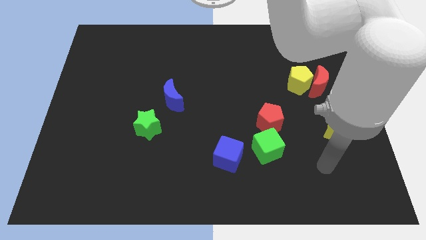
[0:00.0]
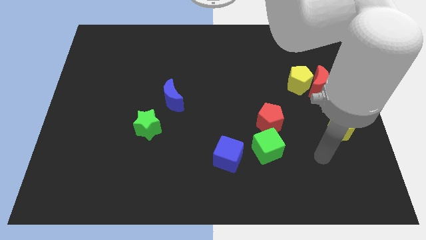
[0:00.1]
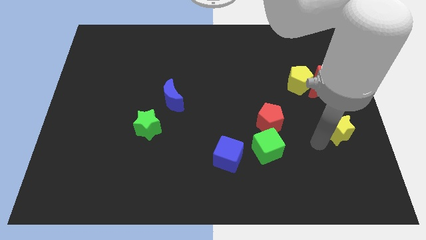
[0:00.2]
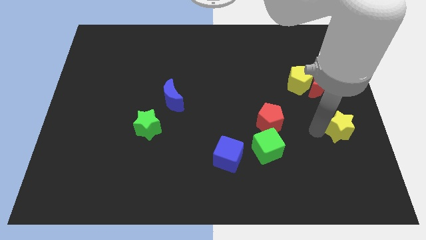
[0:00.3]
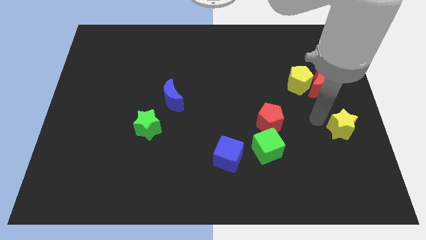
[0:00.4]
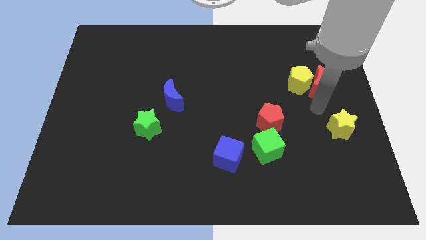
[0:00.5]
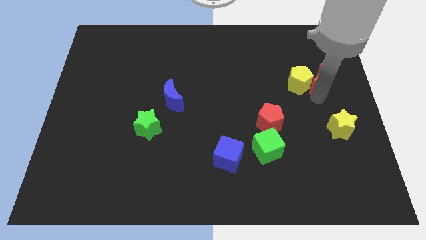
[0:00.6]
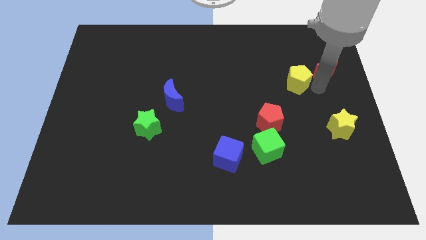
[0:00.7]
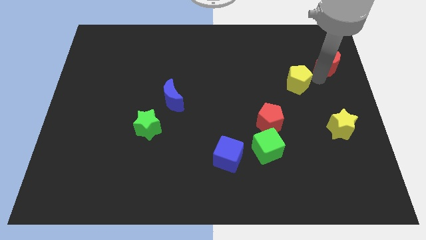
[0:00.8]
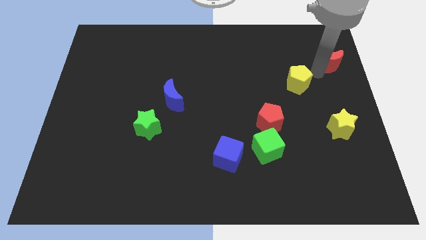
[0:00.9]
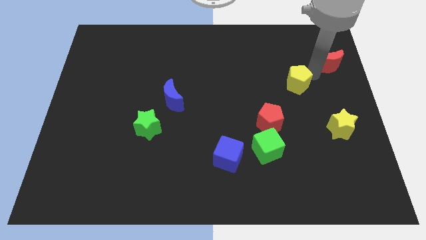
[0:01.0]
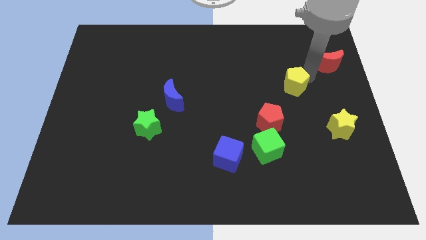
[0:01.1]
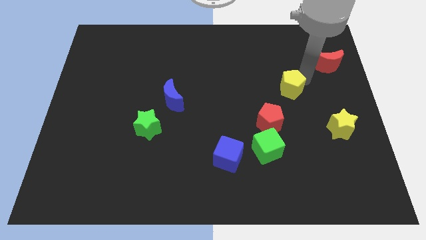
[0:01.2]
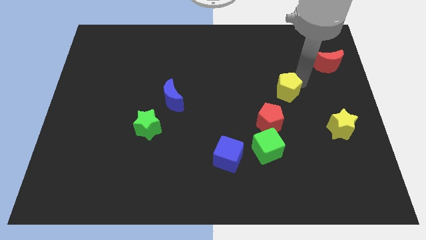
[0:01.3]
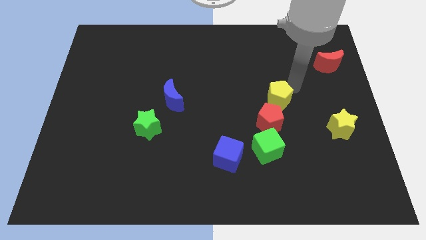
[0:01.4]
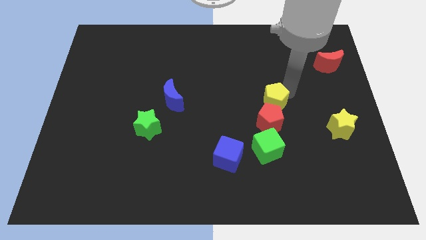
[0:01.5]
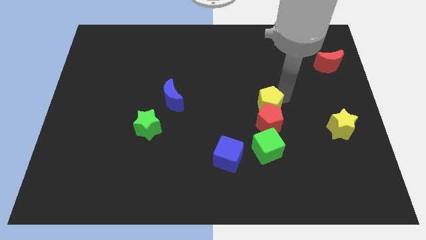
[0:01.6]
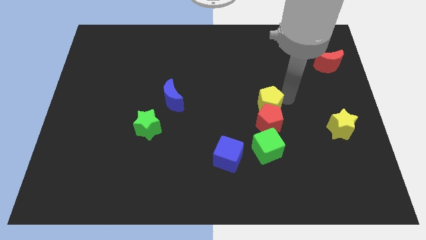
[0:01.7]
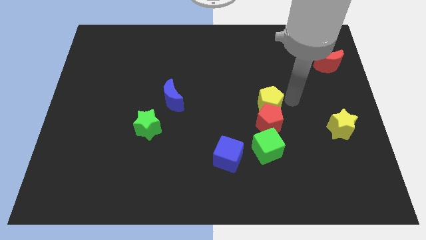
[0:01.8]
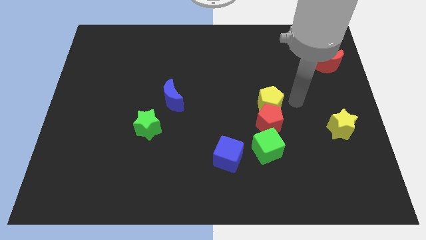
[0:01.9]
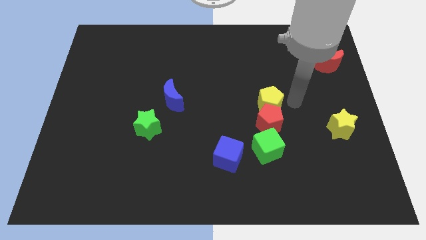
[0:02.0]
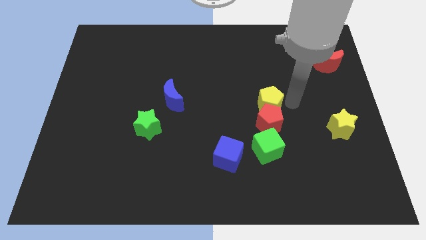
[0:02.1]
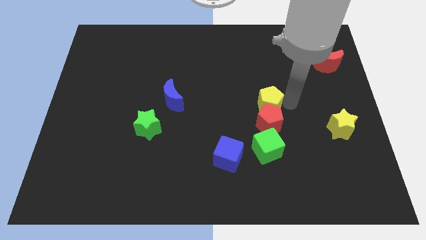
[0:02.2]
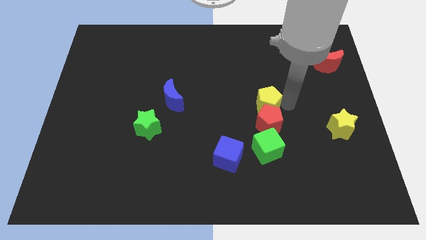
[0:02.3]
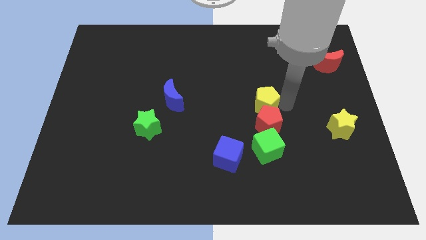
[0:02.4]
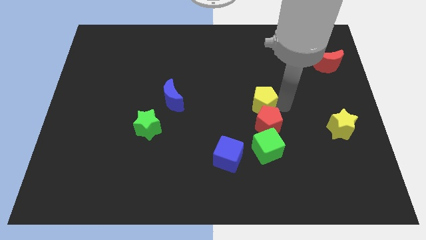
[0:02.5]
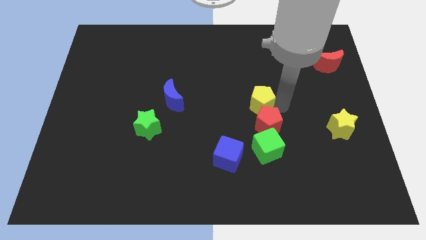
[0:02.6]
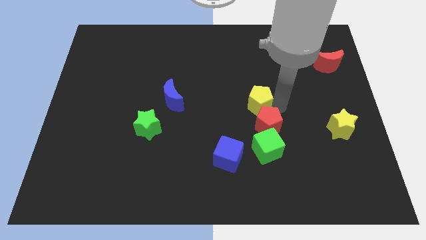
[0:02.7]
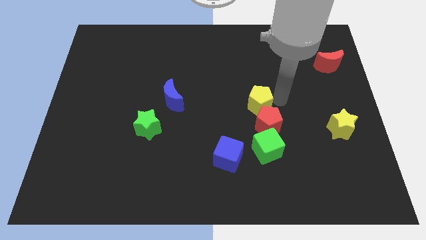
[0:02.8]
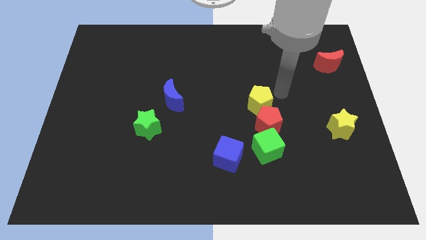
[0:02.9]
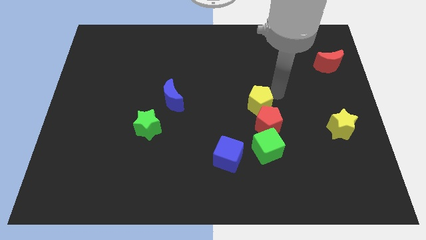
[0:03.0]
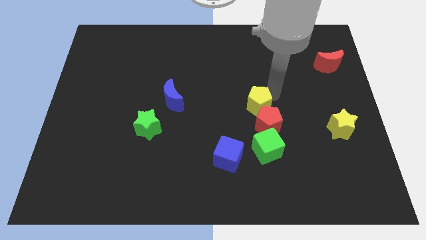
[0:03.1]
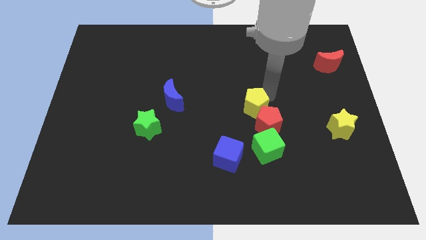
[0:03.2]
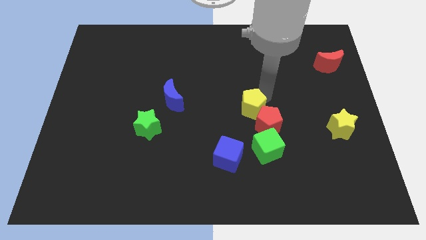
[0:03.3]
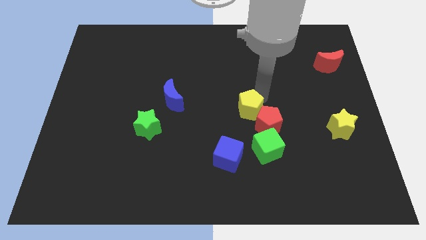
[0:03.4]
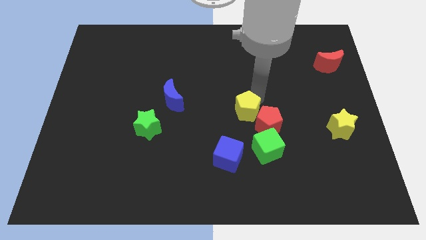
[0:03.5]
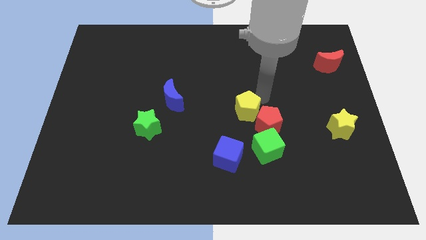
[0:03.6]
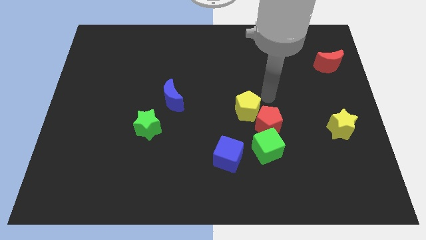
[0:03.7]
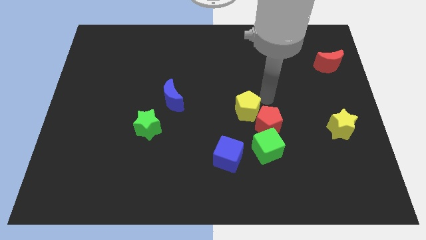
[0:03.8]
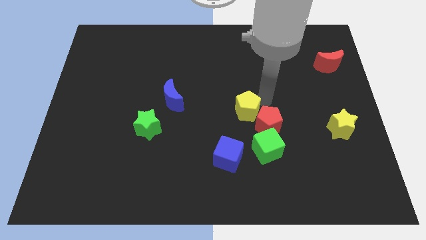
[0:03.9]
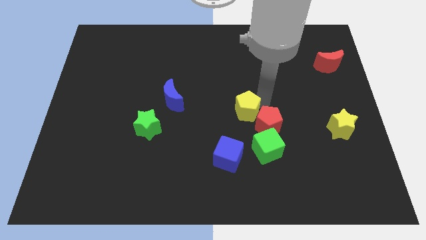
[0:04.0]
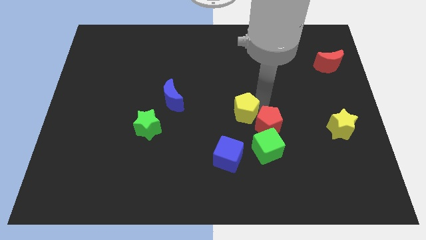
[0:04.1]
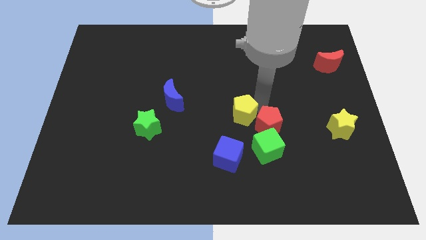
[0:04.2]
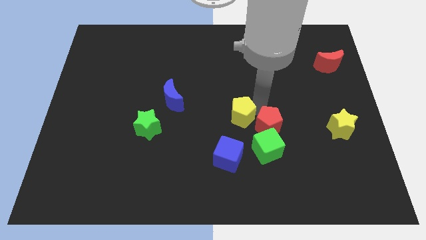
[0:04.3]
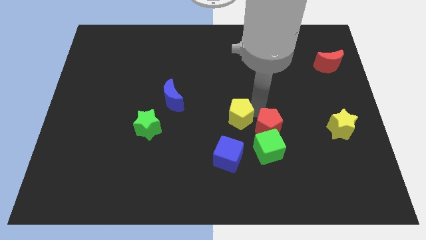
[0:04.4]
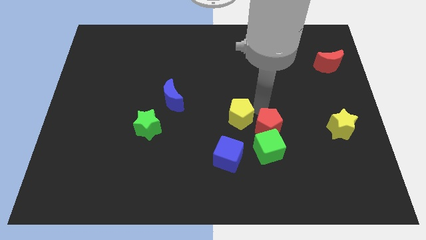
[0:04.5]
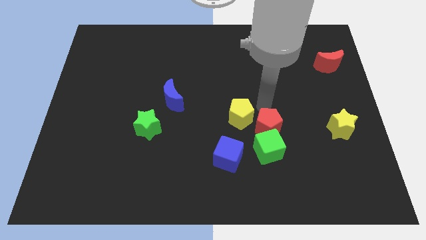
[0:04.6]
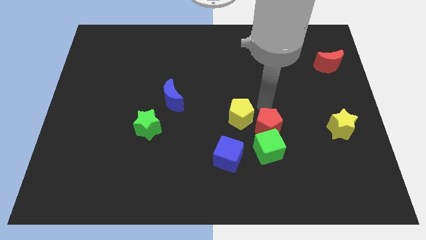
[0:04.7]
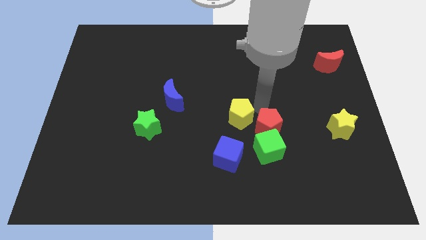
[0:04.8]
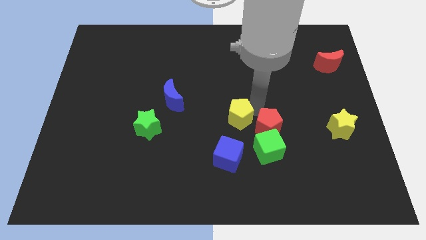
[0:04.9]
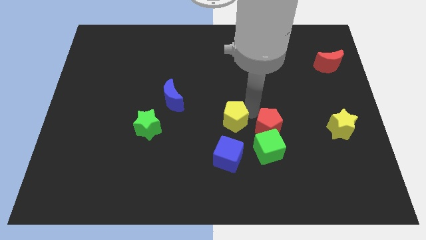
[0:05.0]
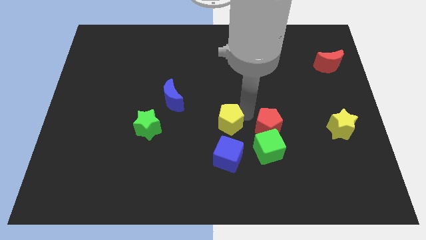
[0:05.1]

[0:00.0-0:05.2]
push the yellow pentagon downwards and then to the left

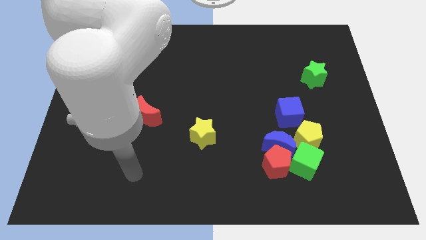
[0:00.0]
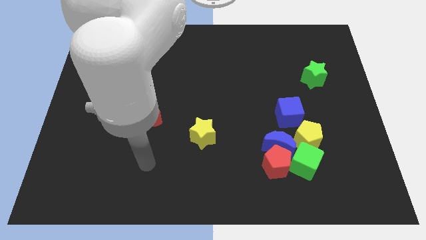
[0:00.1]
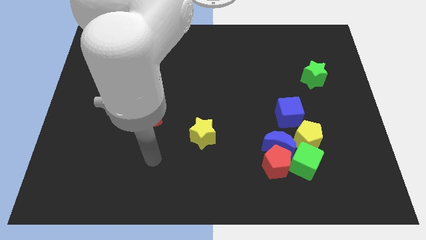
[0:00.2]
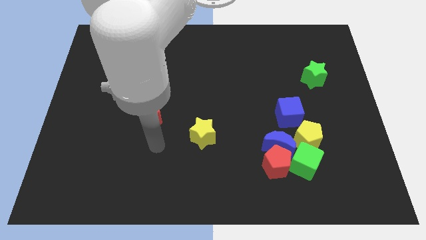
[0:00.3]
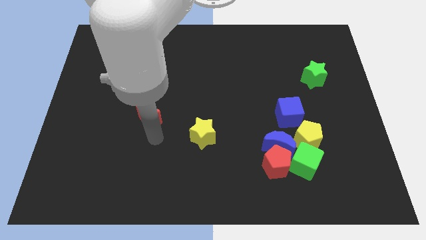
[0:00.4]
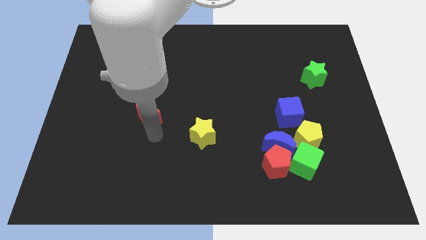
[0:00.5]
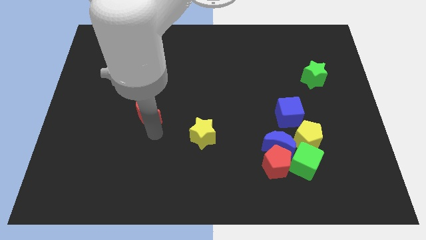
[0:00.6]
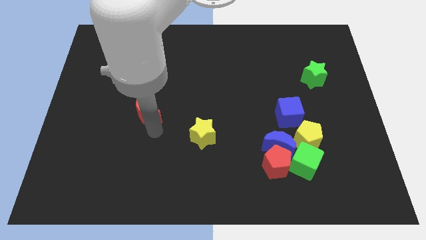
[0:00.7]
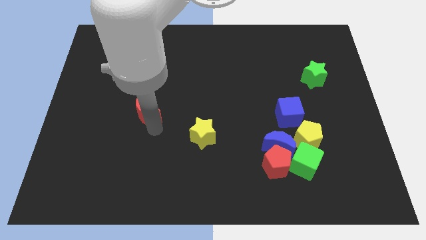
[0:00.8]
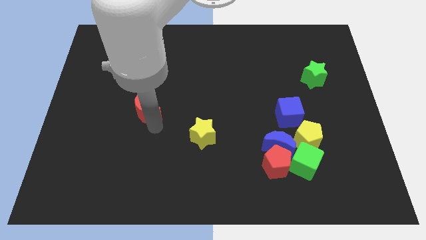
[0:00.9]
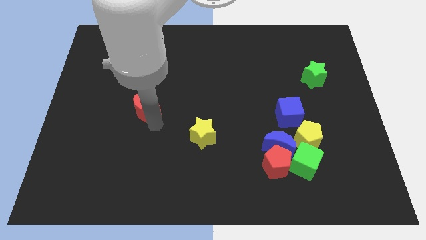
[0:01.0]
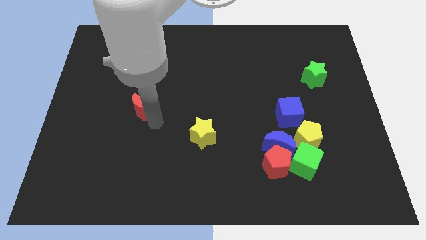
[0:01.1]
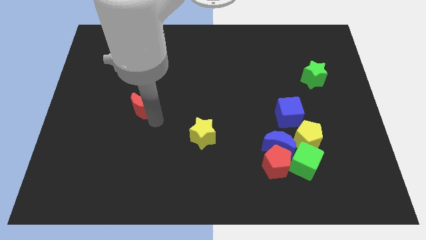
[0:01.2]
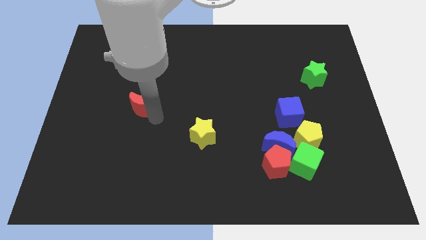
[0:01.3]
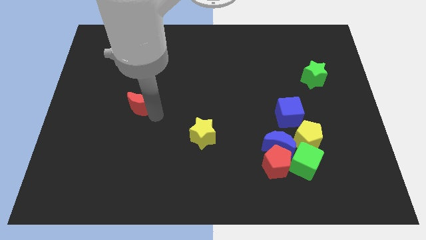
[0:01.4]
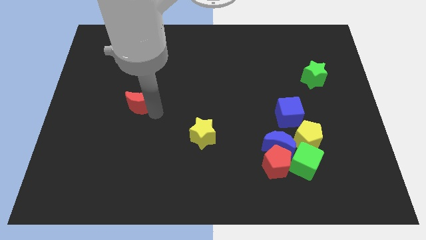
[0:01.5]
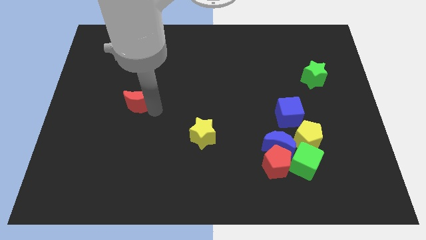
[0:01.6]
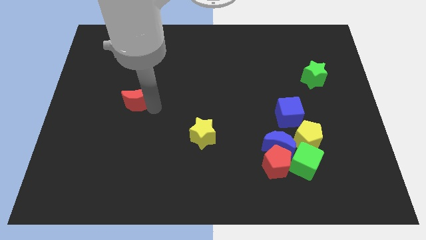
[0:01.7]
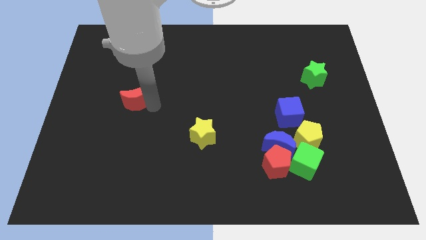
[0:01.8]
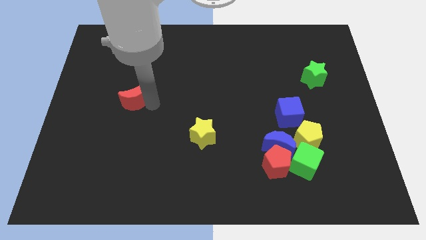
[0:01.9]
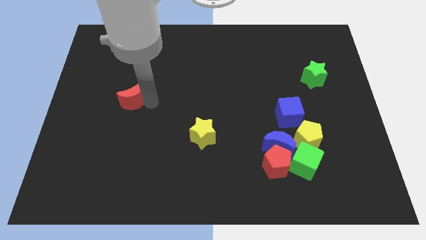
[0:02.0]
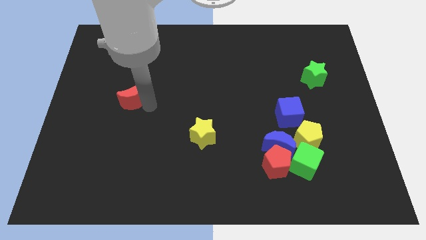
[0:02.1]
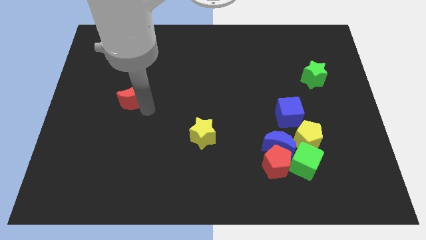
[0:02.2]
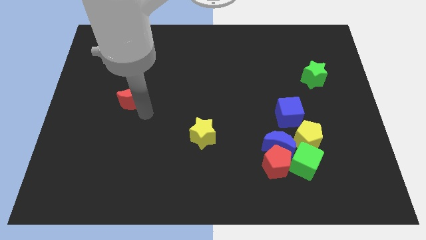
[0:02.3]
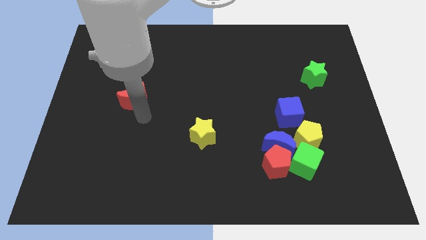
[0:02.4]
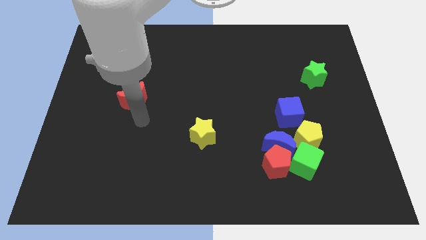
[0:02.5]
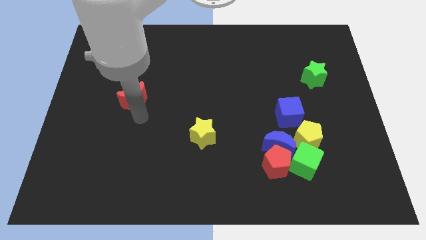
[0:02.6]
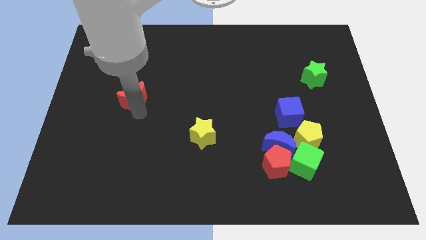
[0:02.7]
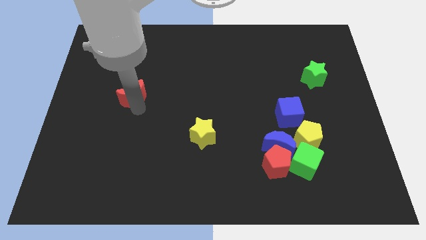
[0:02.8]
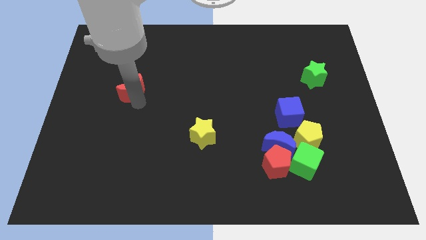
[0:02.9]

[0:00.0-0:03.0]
slide the red moon somewhat diagonally up and to the left
